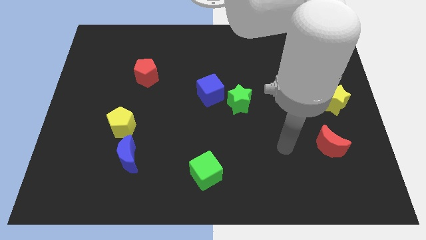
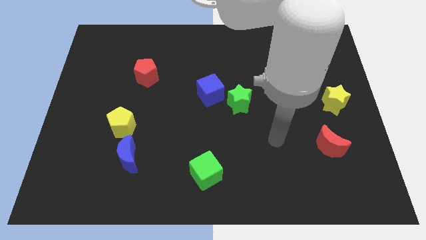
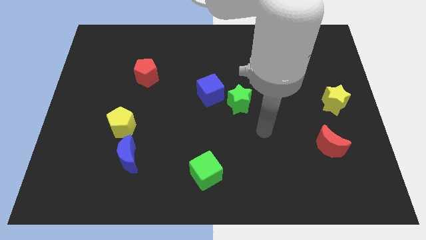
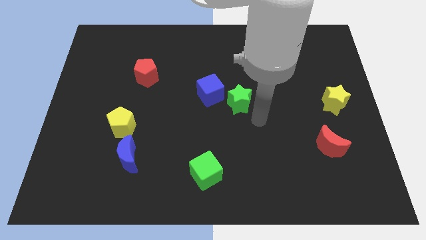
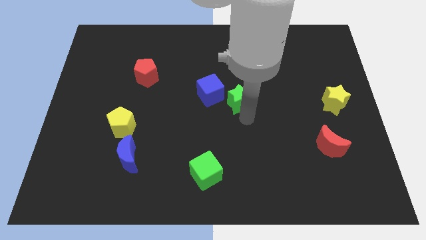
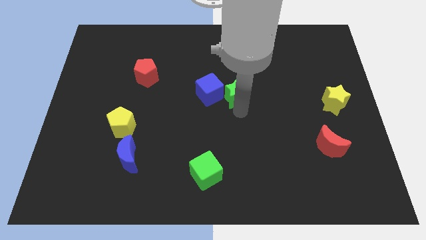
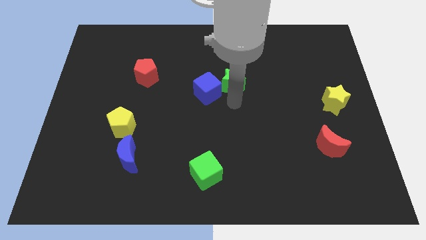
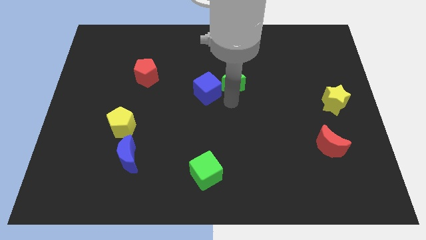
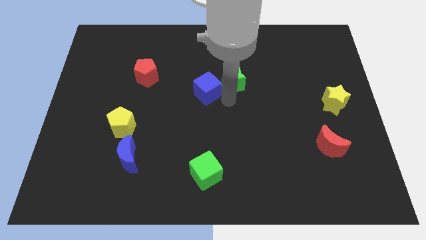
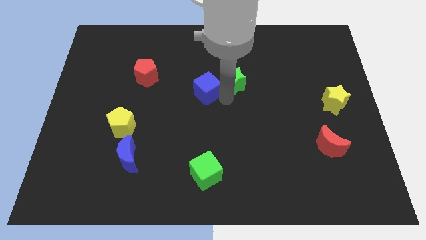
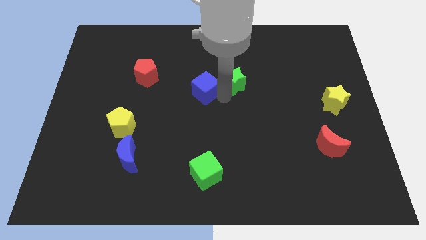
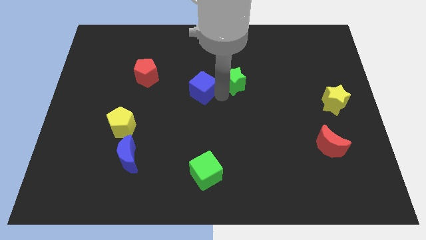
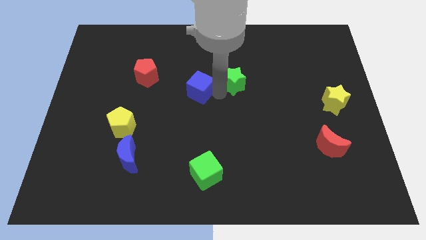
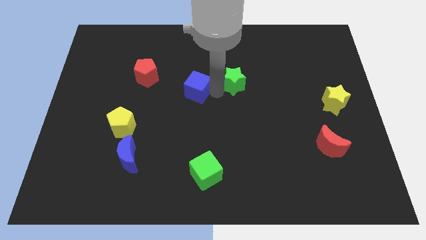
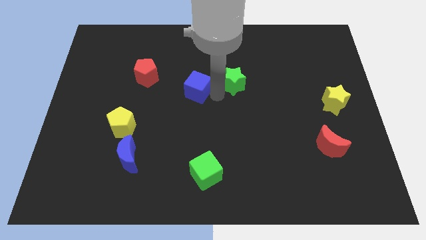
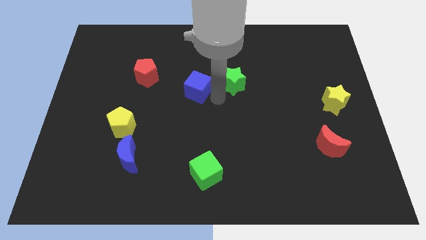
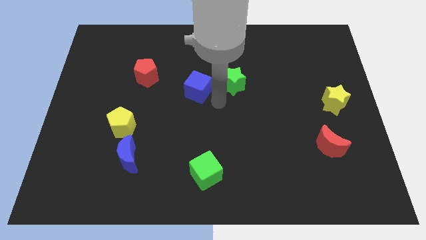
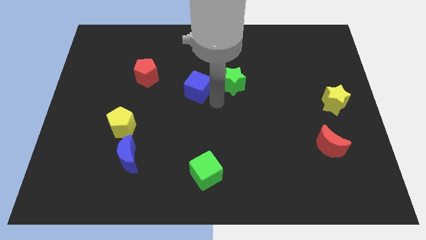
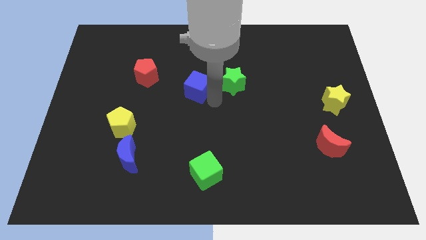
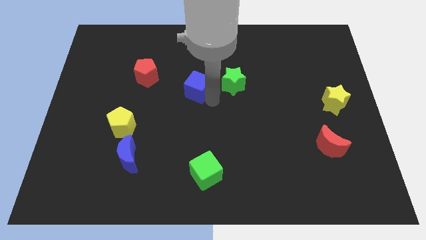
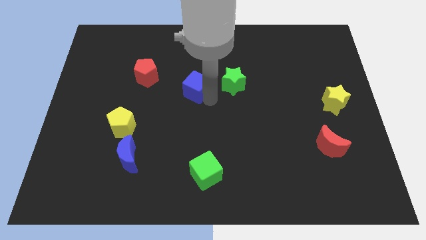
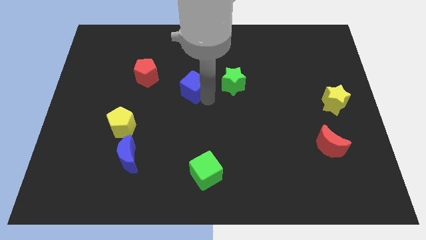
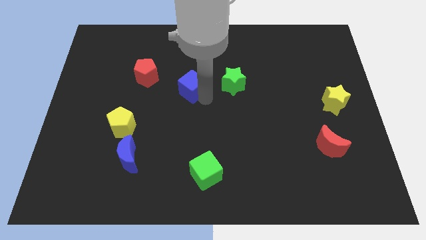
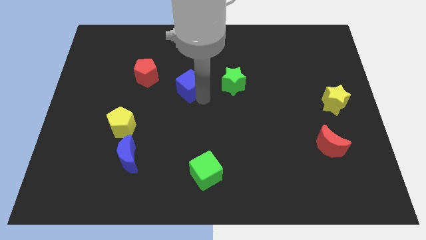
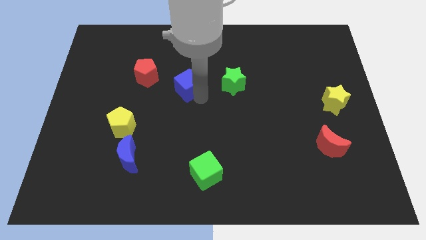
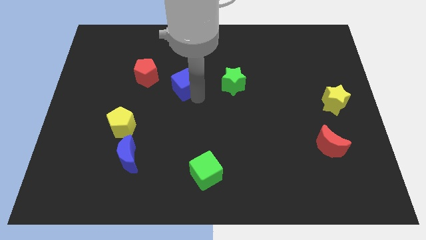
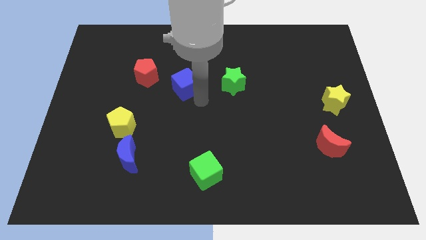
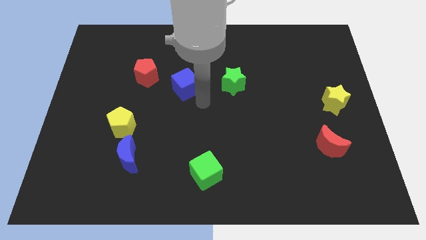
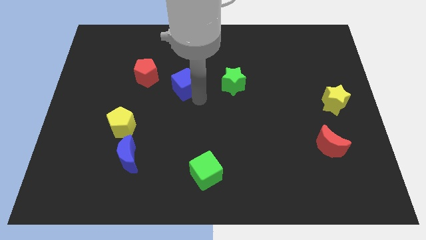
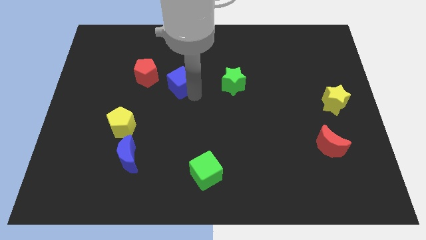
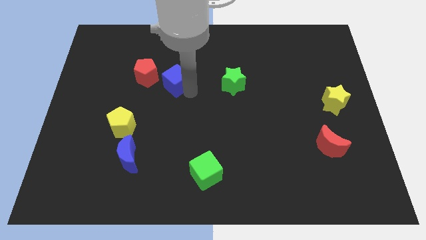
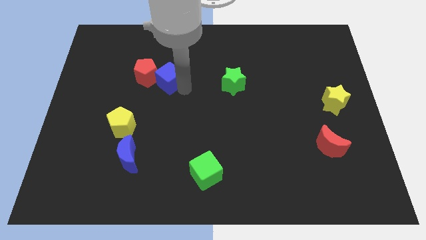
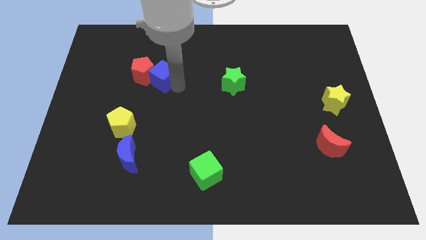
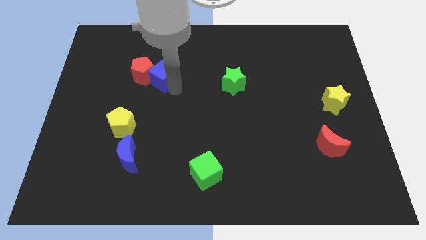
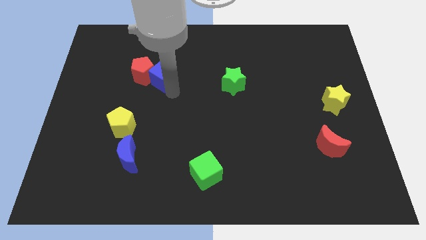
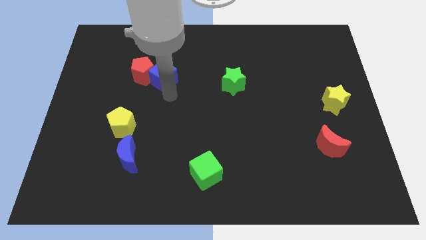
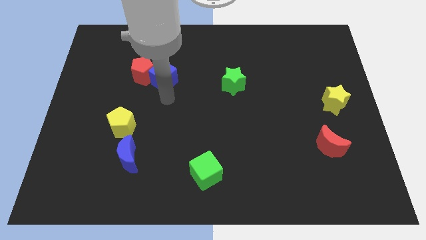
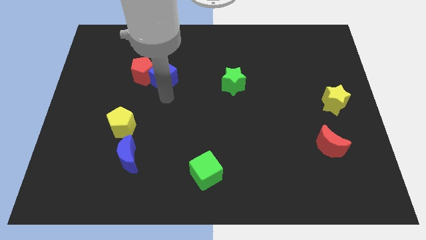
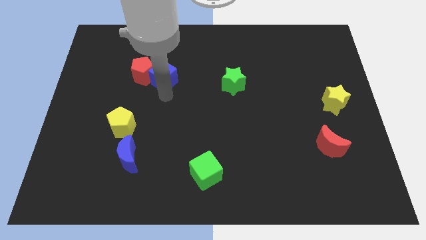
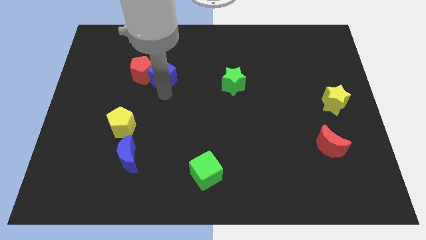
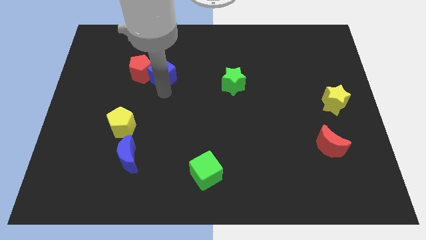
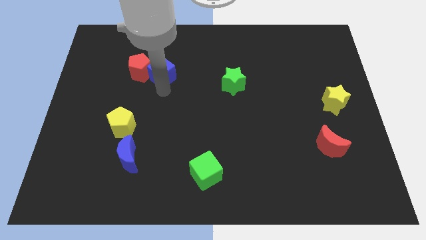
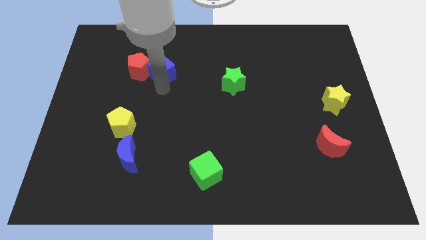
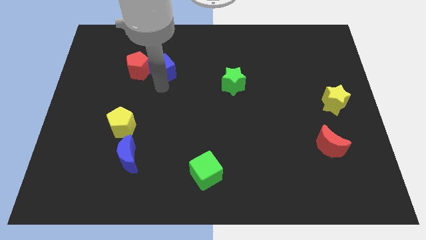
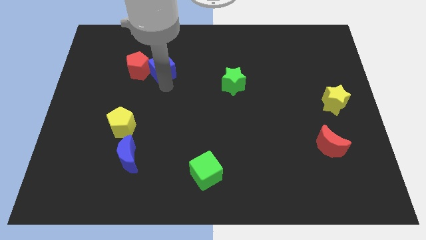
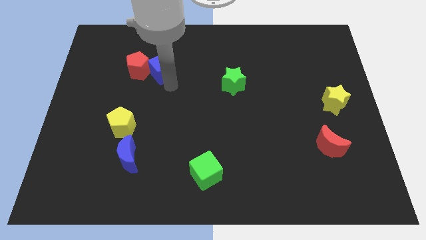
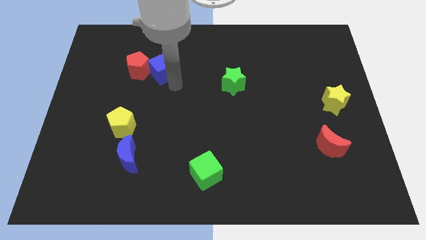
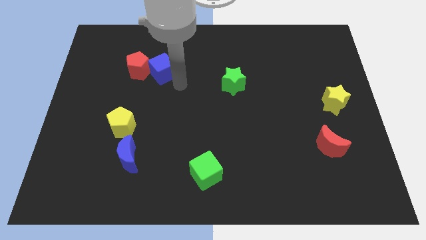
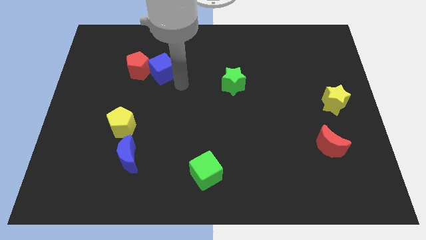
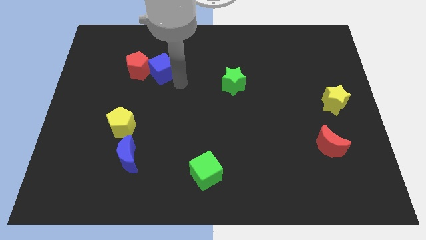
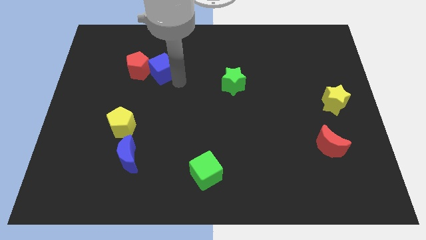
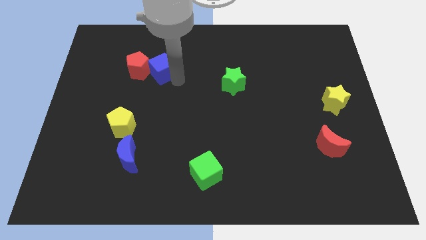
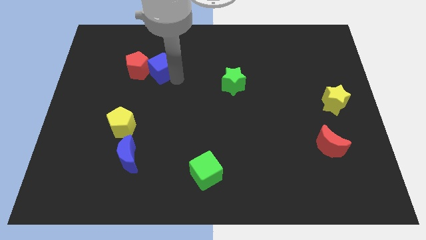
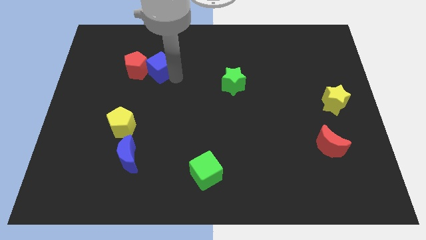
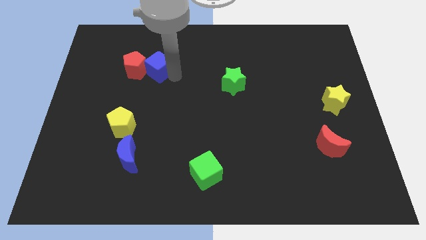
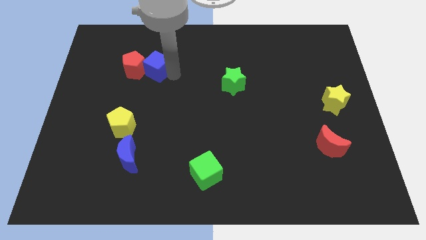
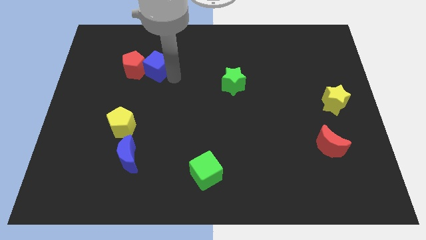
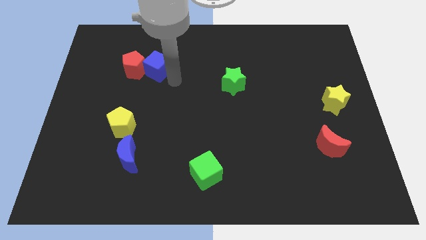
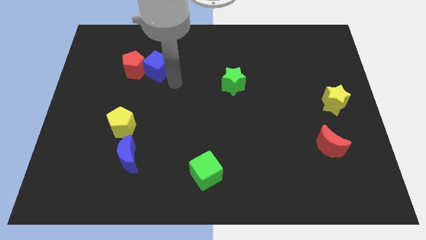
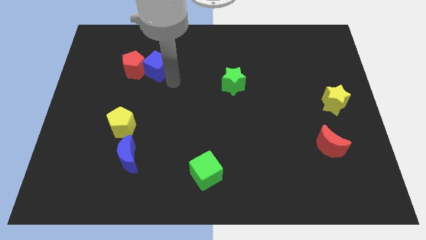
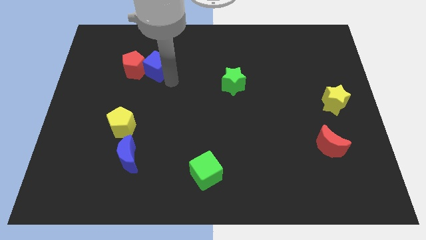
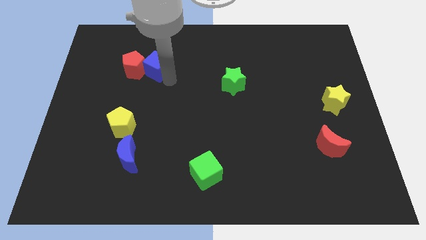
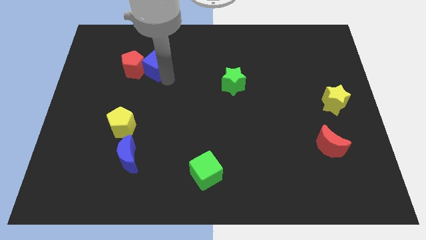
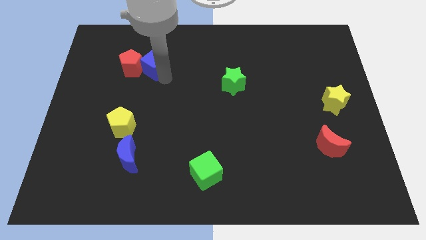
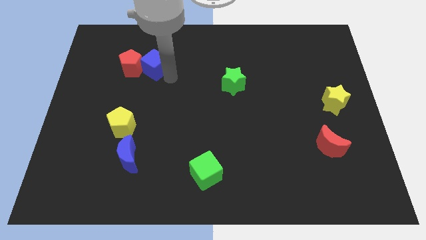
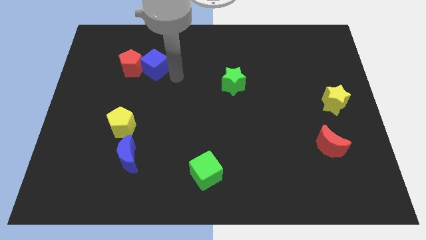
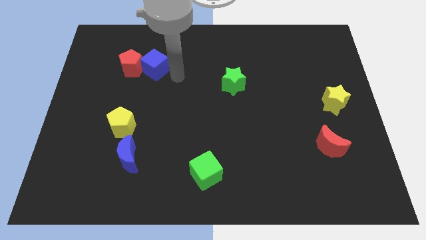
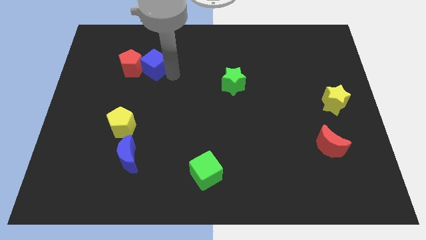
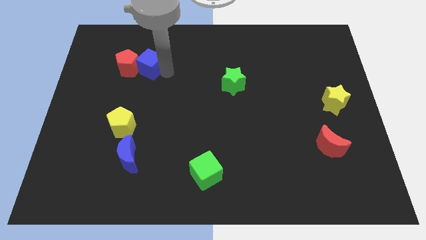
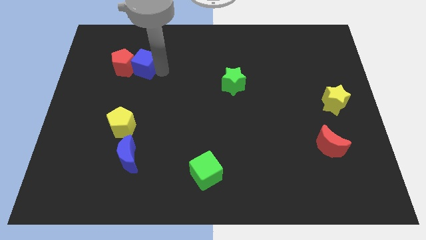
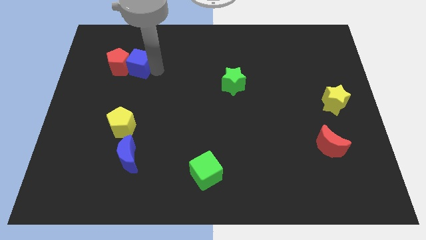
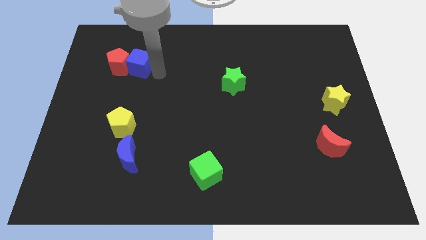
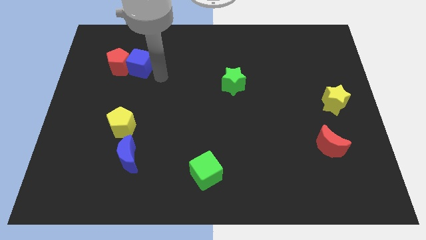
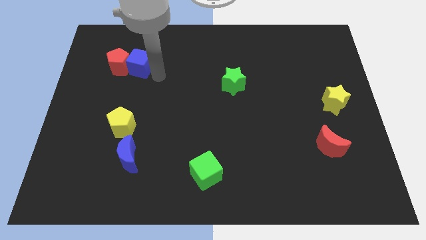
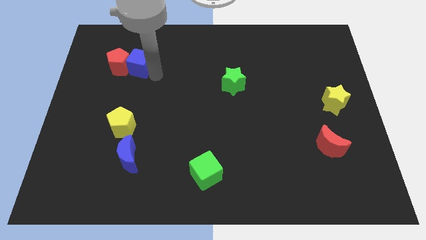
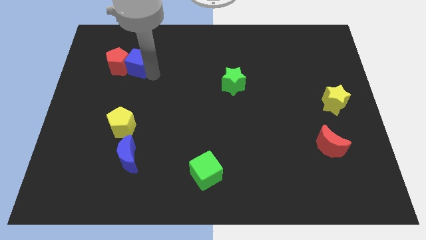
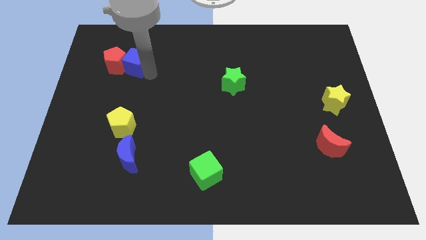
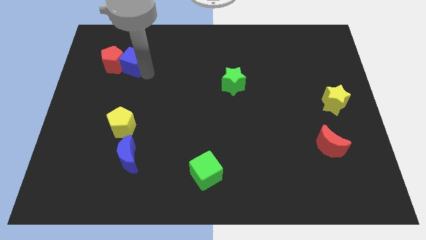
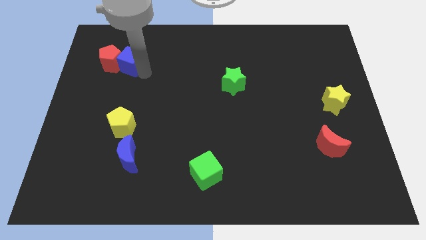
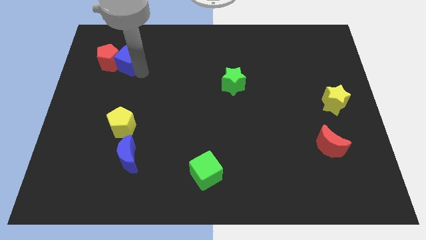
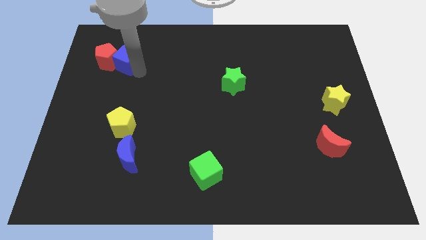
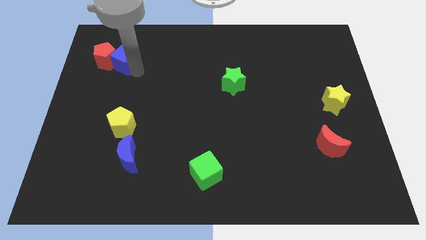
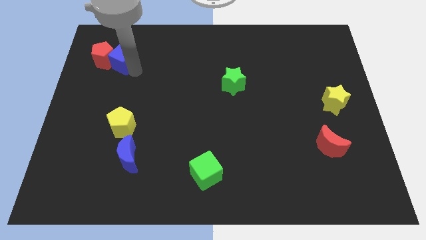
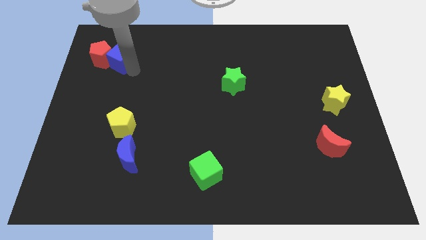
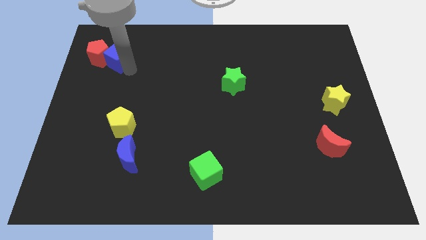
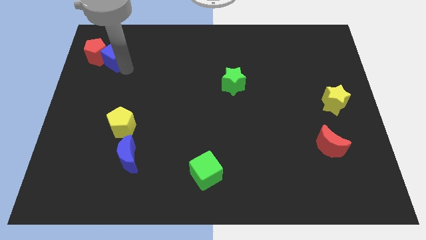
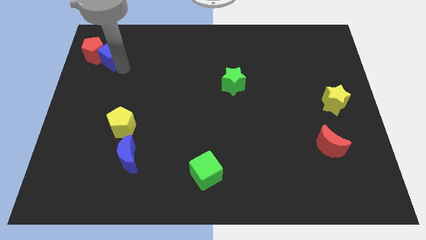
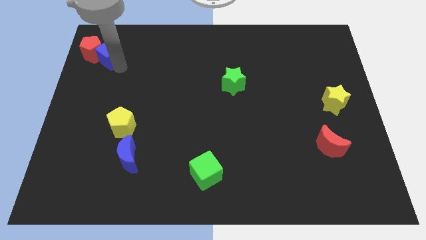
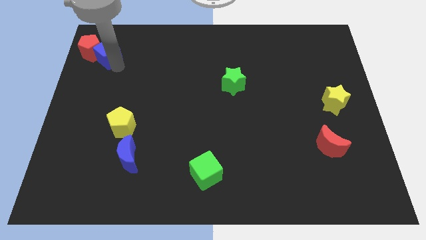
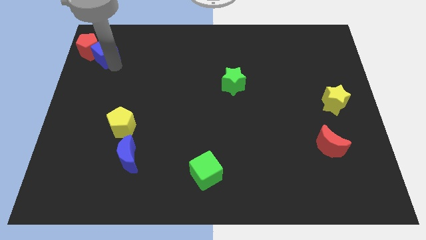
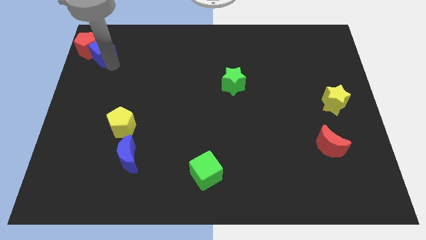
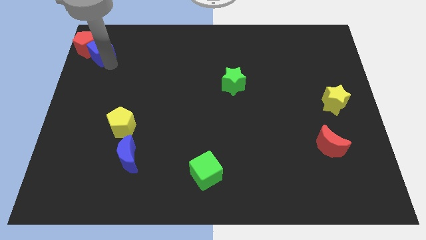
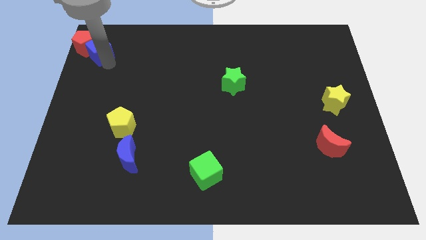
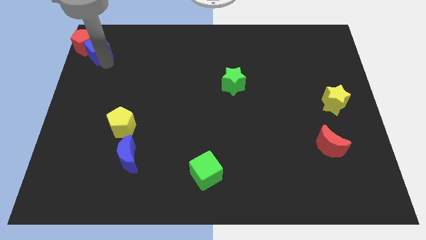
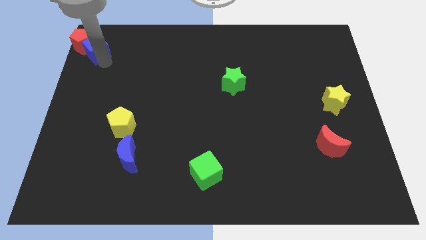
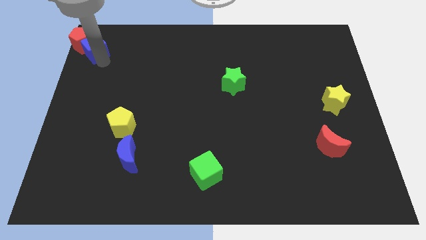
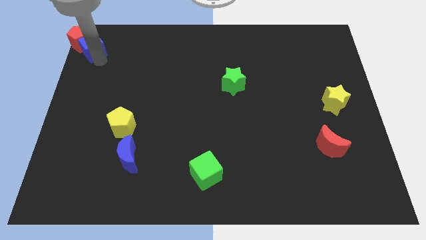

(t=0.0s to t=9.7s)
push the blue cube to the top left
